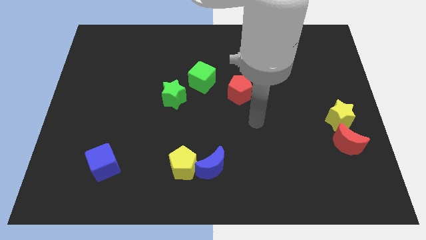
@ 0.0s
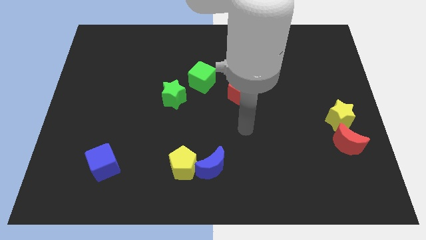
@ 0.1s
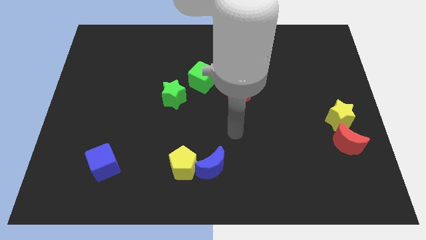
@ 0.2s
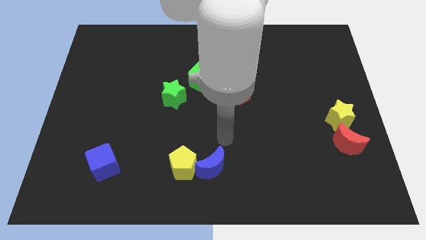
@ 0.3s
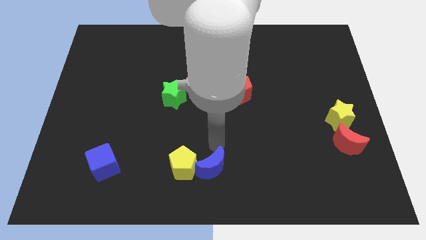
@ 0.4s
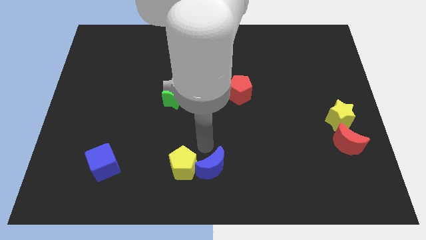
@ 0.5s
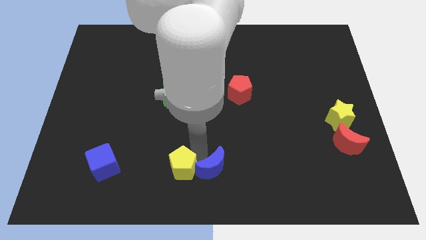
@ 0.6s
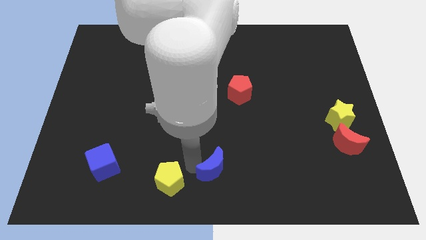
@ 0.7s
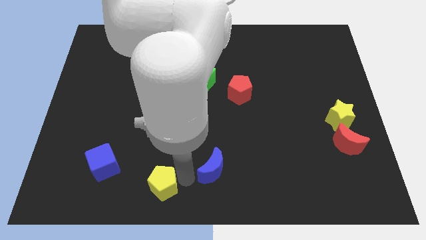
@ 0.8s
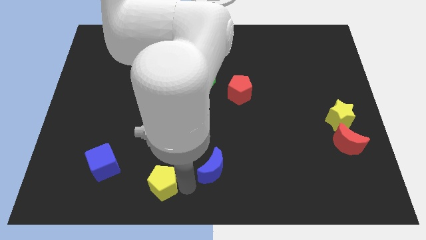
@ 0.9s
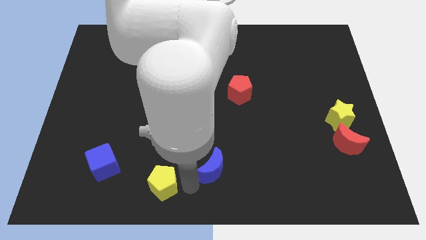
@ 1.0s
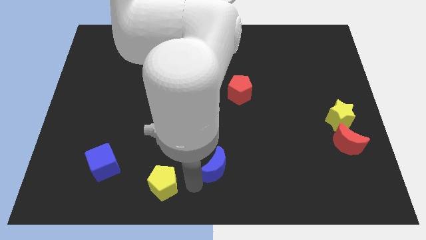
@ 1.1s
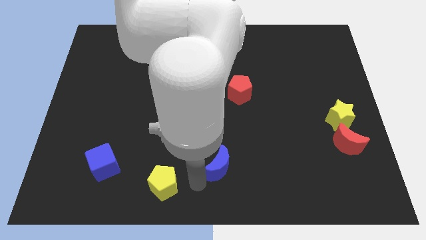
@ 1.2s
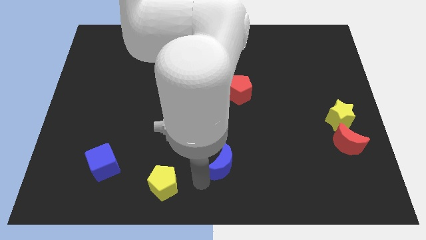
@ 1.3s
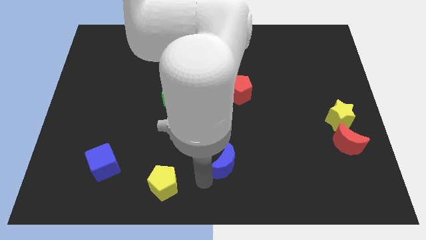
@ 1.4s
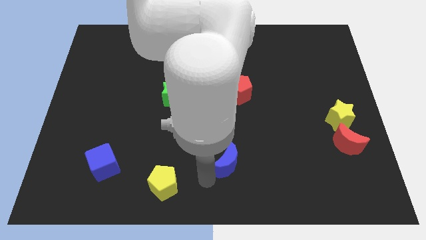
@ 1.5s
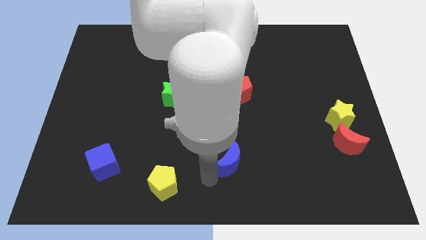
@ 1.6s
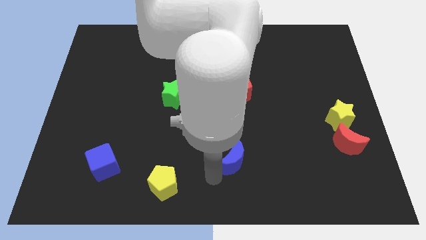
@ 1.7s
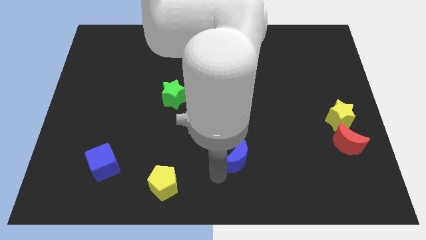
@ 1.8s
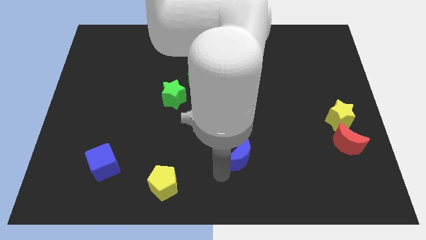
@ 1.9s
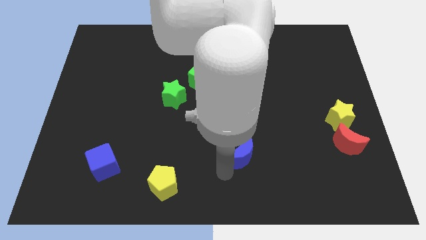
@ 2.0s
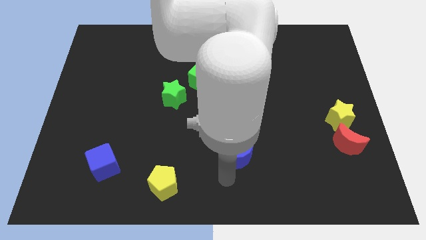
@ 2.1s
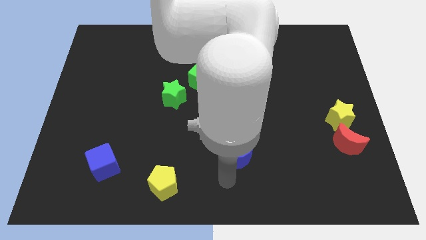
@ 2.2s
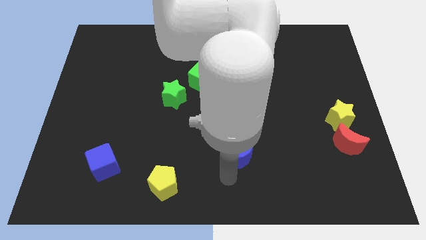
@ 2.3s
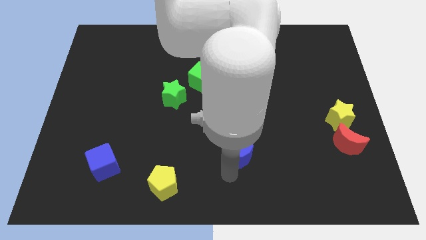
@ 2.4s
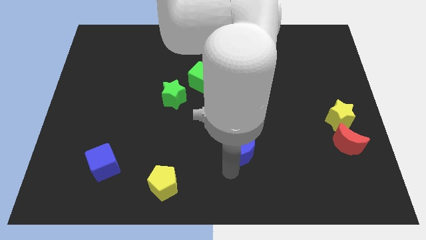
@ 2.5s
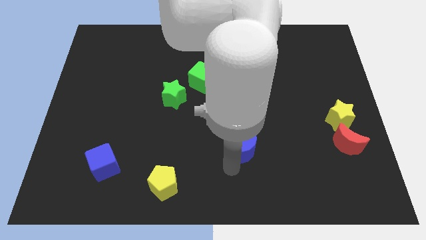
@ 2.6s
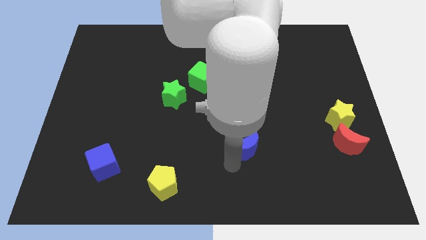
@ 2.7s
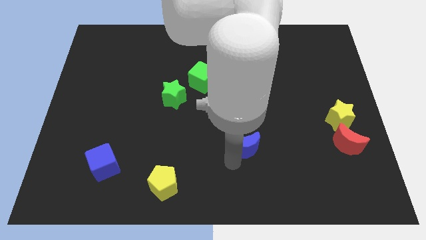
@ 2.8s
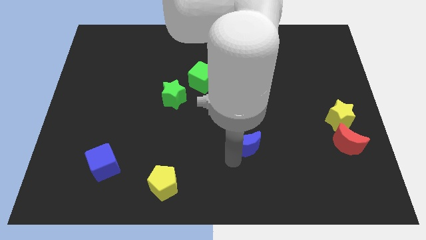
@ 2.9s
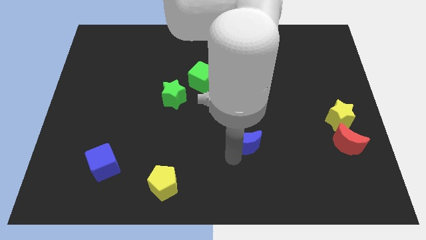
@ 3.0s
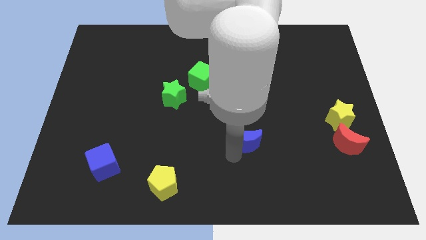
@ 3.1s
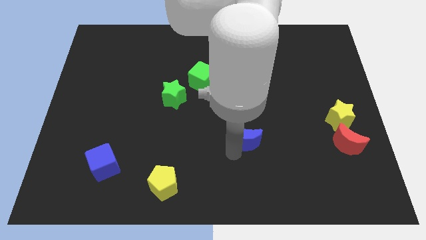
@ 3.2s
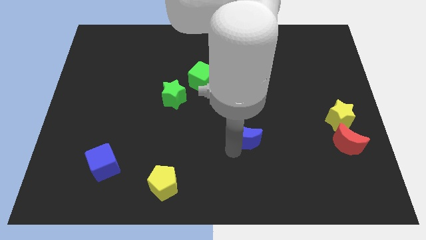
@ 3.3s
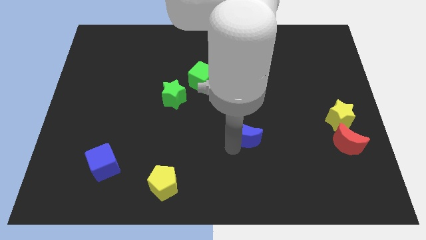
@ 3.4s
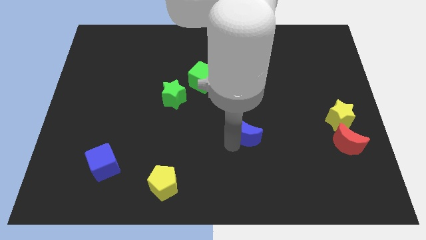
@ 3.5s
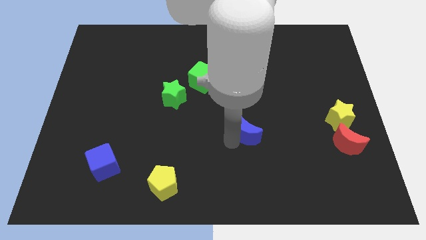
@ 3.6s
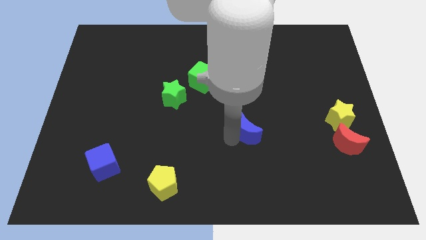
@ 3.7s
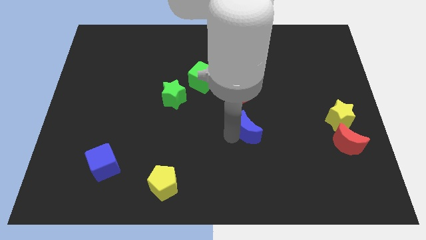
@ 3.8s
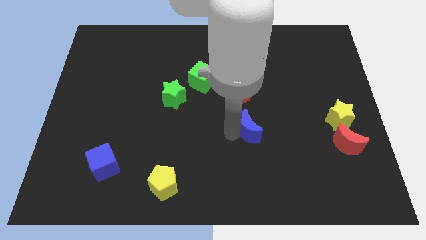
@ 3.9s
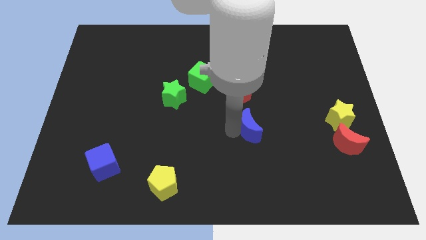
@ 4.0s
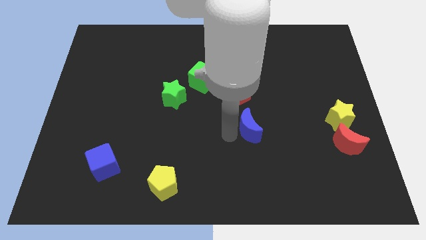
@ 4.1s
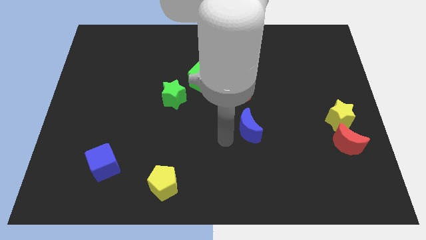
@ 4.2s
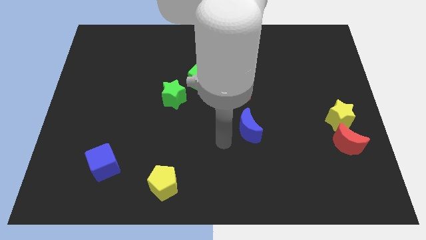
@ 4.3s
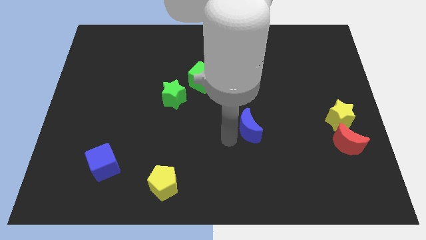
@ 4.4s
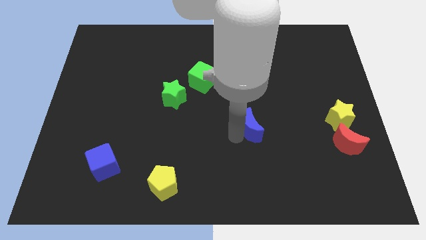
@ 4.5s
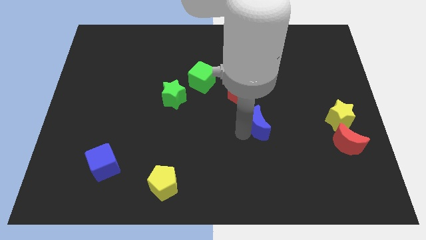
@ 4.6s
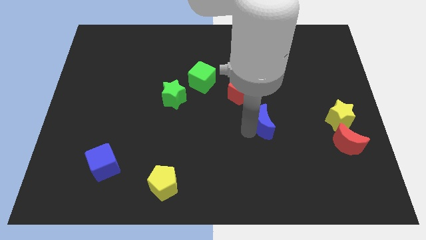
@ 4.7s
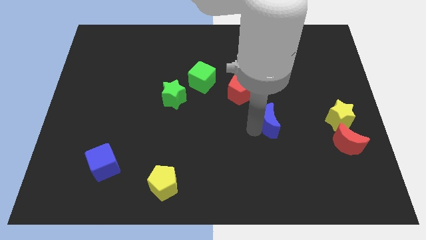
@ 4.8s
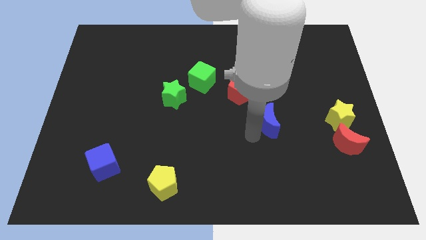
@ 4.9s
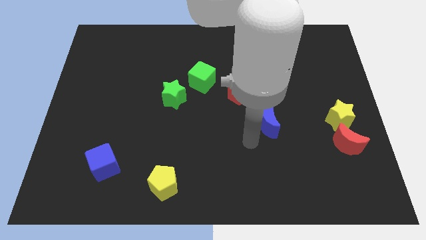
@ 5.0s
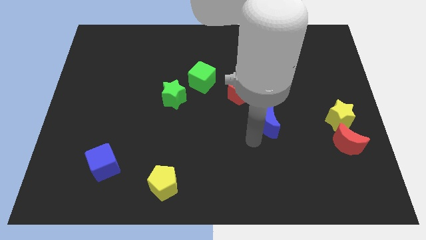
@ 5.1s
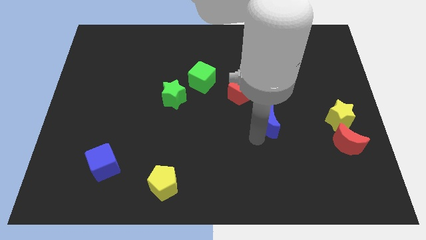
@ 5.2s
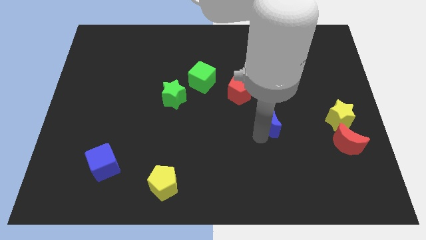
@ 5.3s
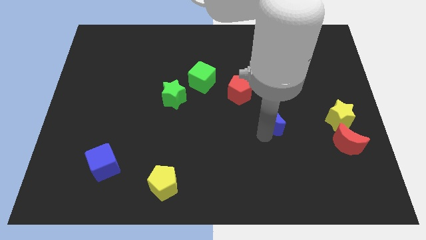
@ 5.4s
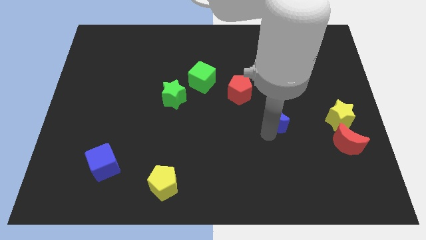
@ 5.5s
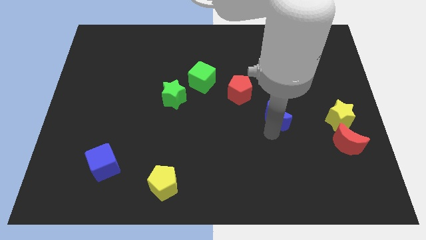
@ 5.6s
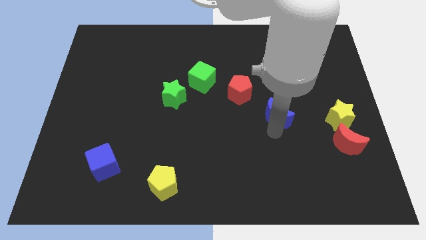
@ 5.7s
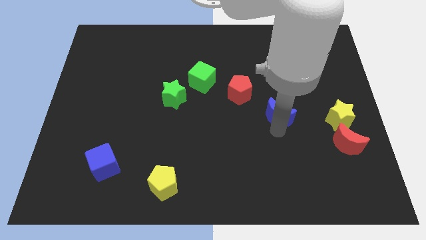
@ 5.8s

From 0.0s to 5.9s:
push the blue moon upwards and right

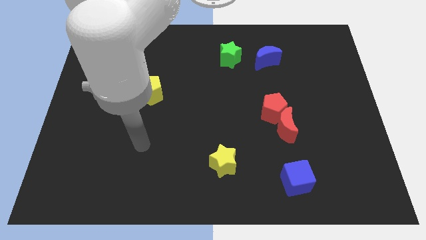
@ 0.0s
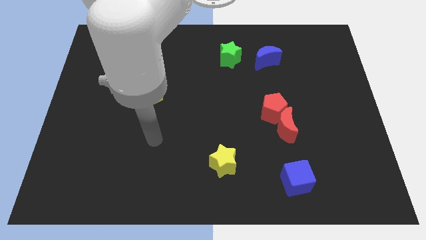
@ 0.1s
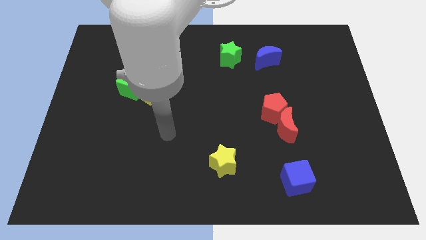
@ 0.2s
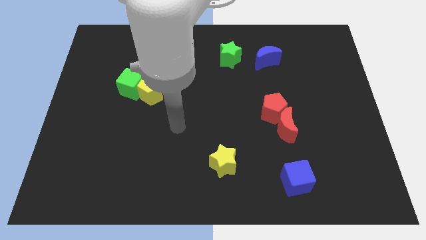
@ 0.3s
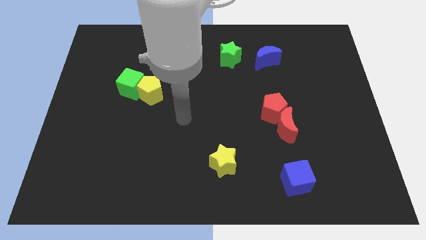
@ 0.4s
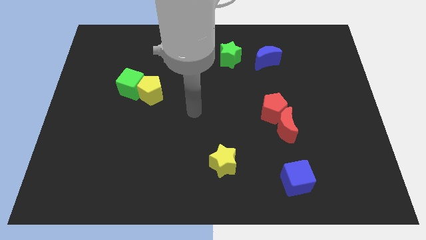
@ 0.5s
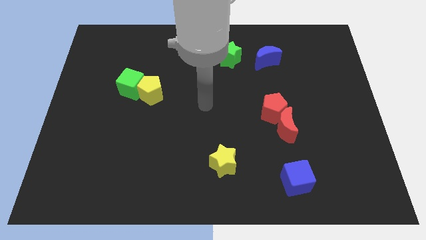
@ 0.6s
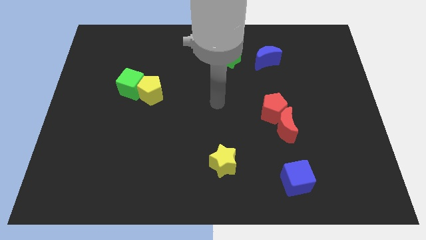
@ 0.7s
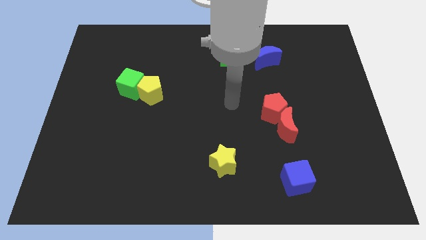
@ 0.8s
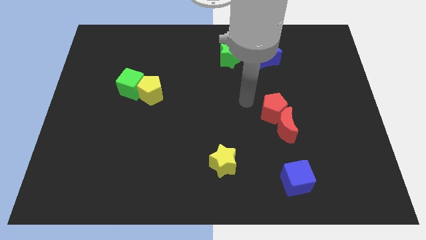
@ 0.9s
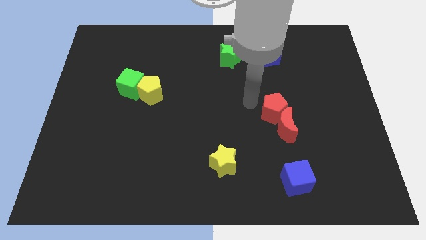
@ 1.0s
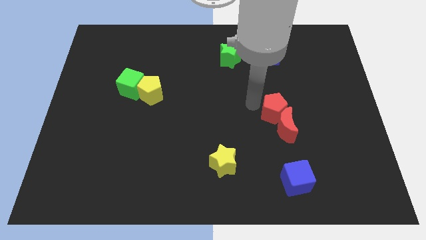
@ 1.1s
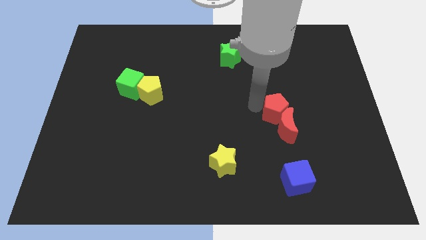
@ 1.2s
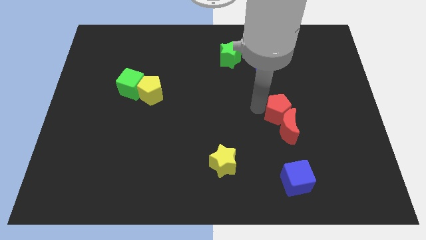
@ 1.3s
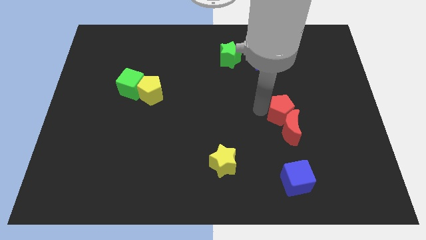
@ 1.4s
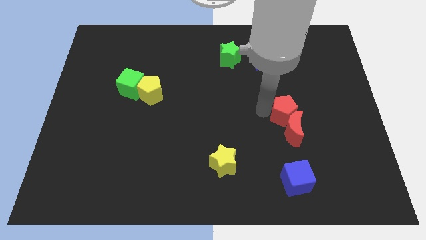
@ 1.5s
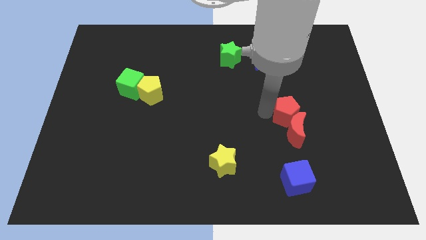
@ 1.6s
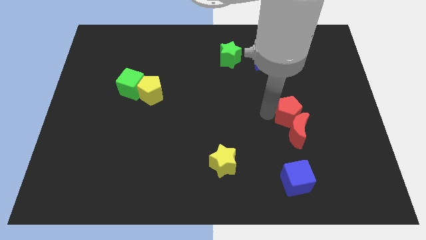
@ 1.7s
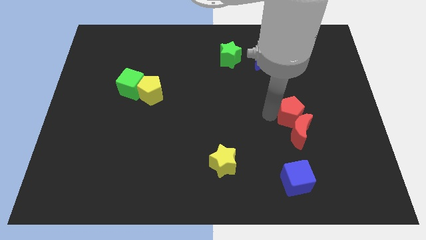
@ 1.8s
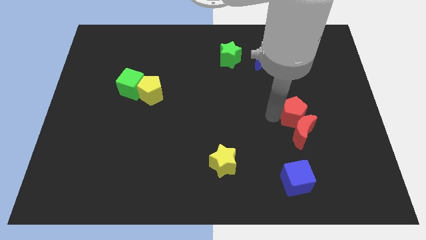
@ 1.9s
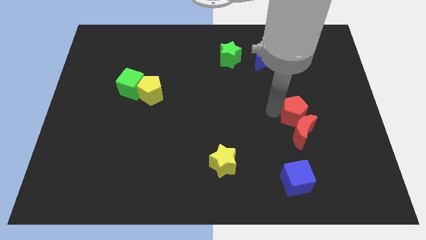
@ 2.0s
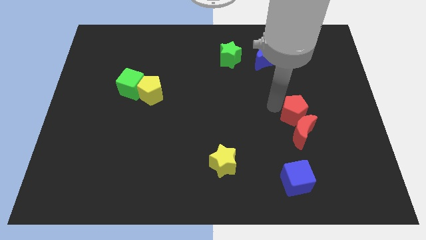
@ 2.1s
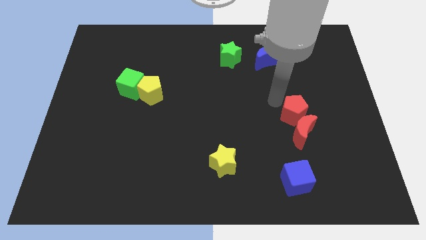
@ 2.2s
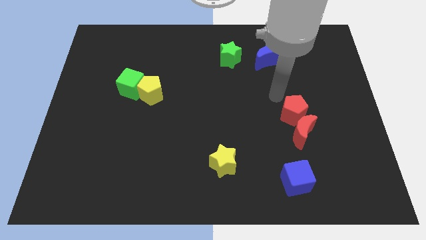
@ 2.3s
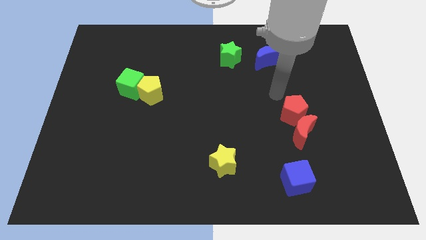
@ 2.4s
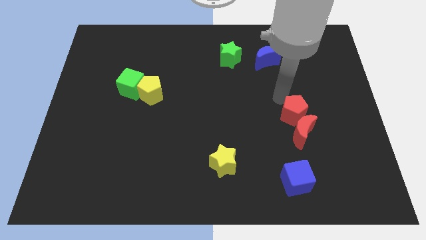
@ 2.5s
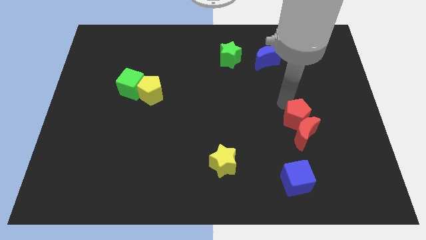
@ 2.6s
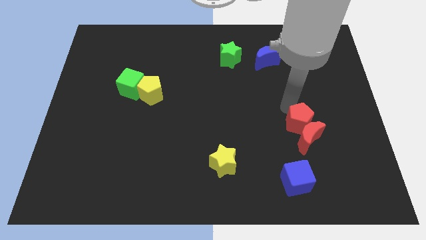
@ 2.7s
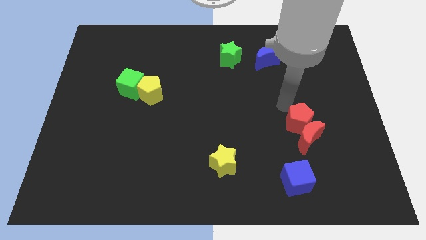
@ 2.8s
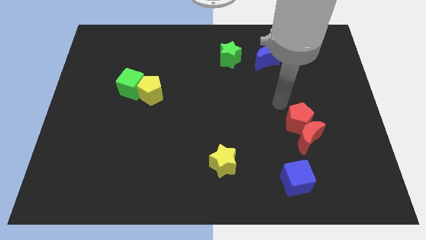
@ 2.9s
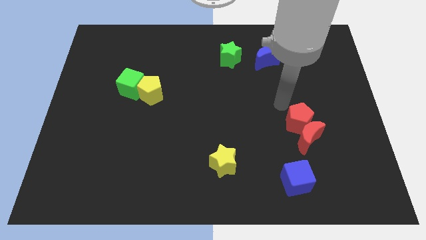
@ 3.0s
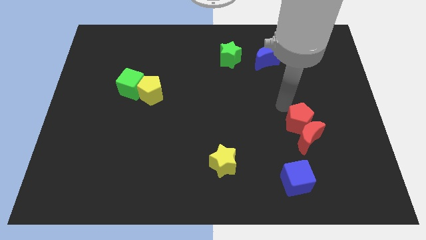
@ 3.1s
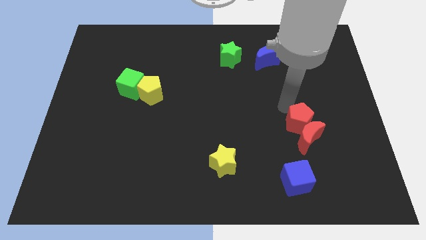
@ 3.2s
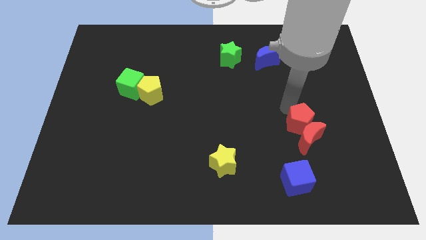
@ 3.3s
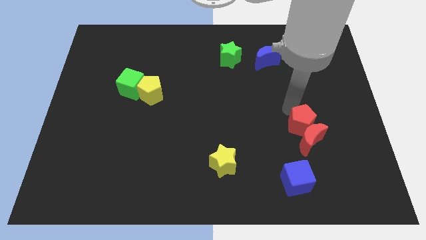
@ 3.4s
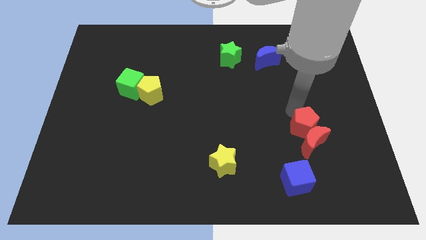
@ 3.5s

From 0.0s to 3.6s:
slightly push the red pentagon diagonally down and right
